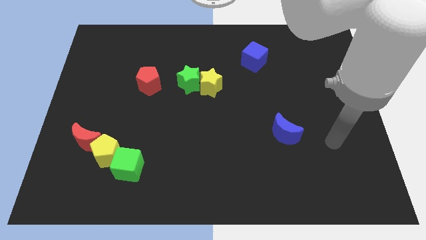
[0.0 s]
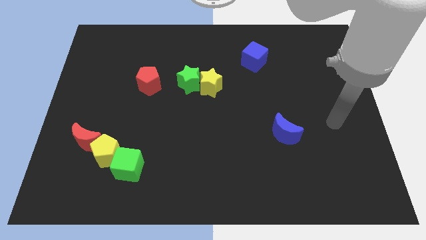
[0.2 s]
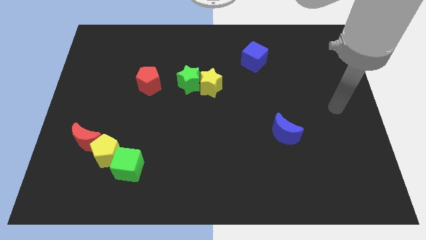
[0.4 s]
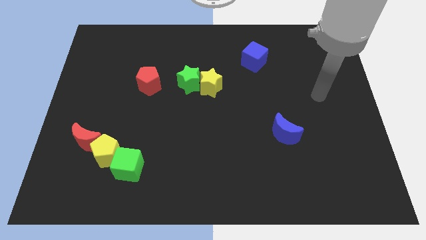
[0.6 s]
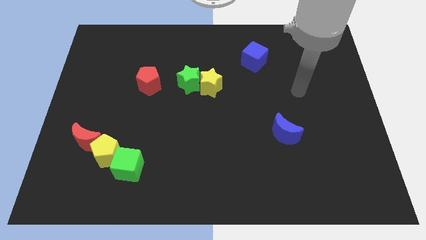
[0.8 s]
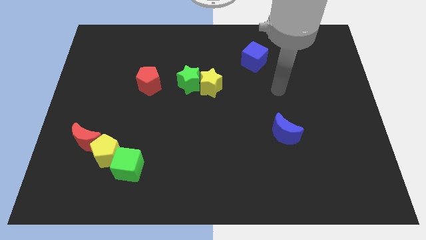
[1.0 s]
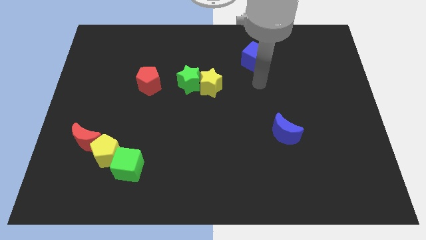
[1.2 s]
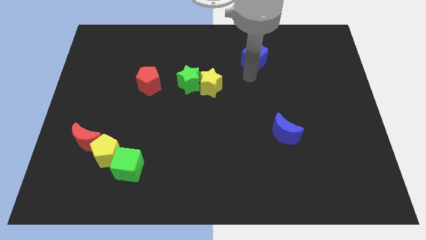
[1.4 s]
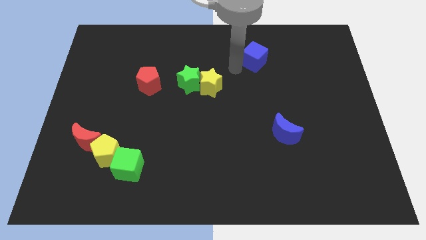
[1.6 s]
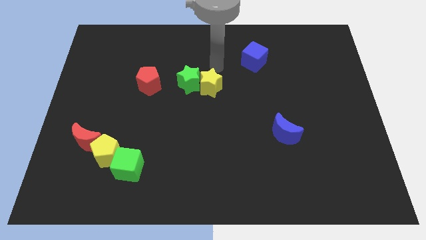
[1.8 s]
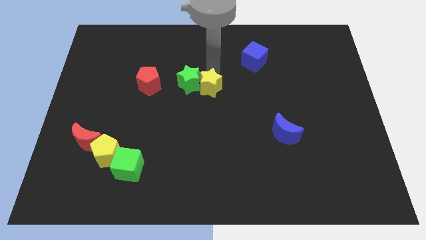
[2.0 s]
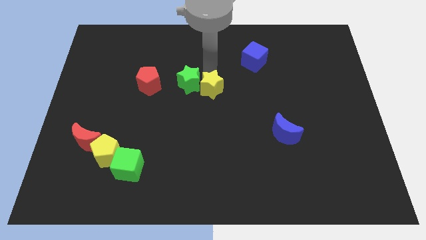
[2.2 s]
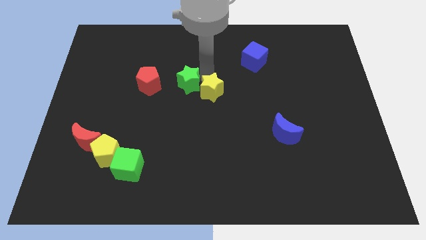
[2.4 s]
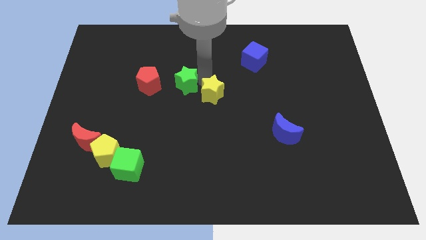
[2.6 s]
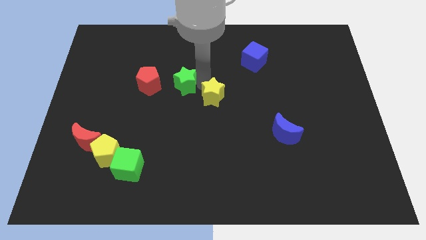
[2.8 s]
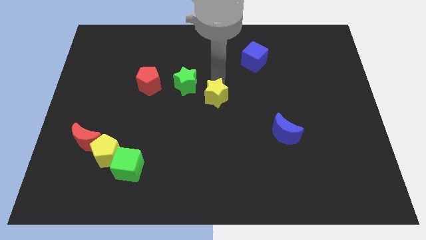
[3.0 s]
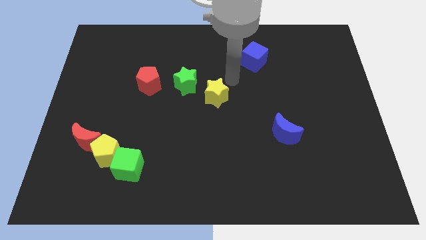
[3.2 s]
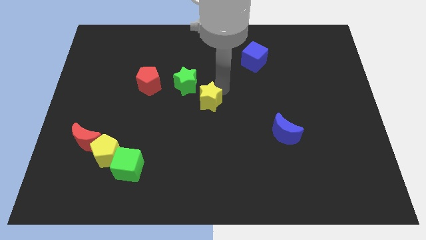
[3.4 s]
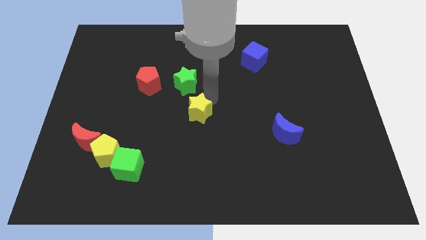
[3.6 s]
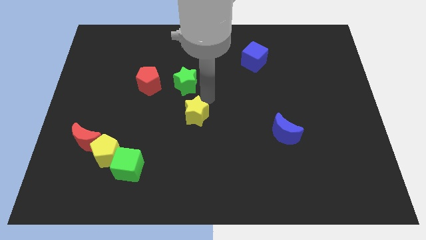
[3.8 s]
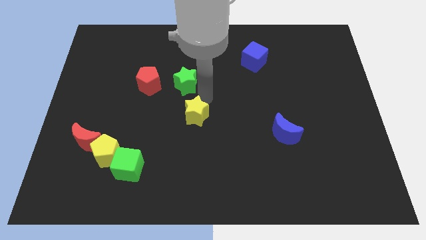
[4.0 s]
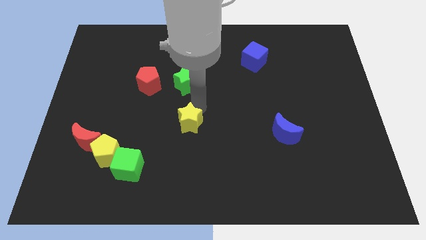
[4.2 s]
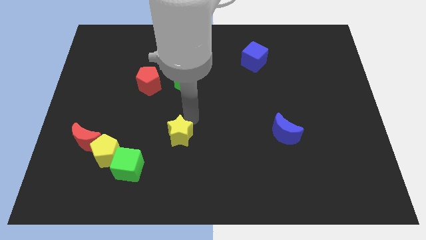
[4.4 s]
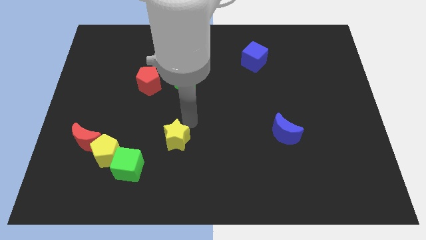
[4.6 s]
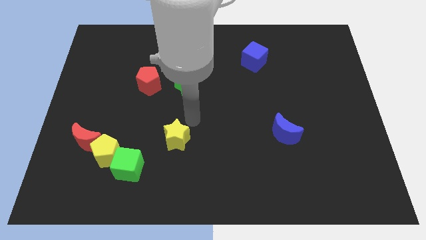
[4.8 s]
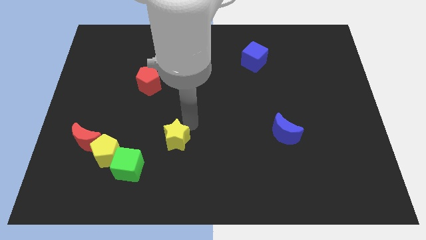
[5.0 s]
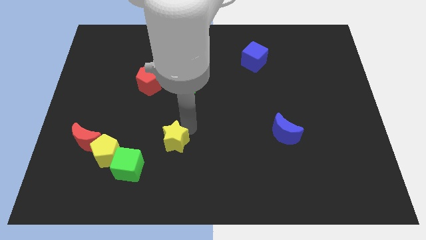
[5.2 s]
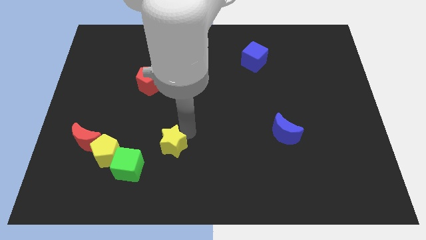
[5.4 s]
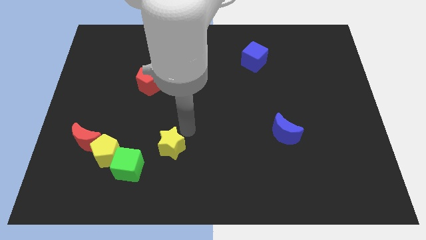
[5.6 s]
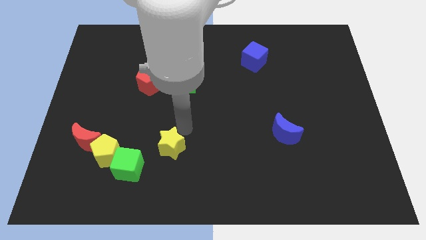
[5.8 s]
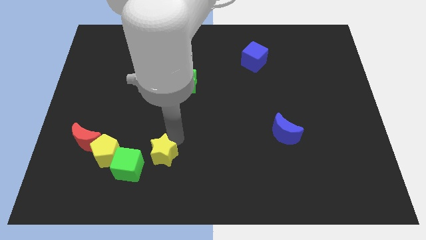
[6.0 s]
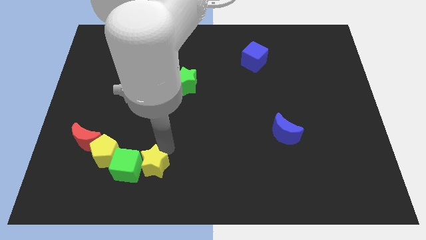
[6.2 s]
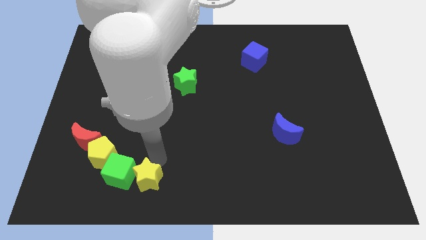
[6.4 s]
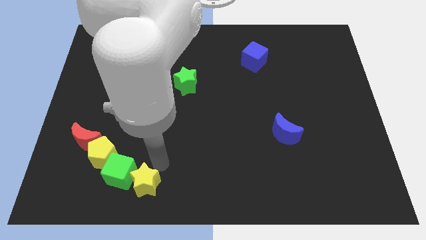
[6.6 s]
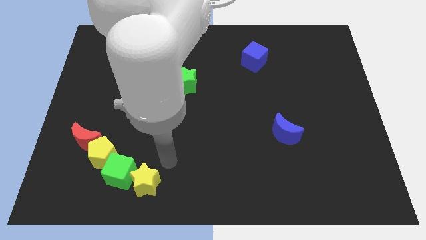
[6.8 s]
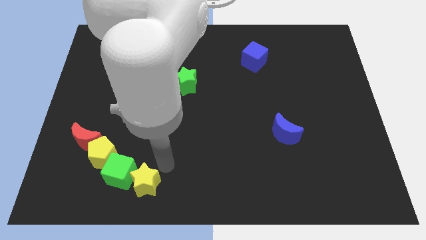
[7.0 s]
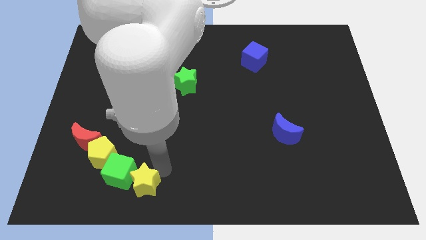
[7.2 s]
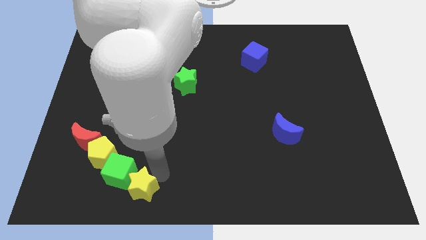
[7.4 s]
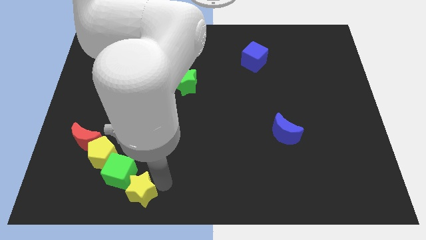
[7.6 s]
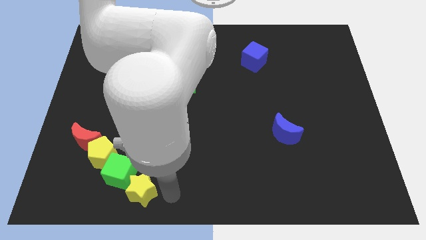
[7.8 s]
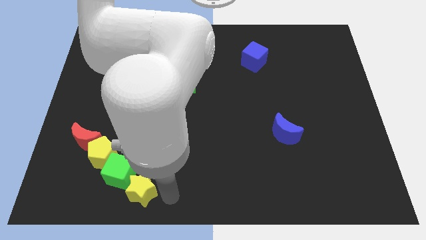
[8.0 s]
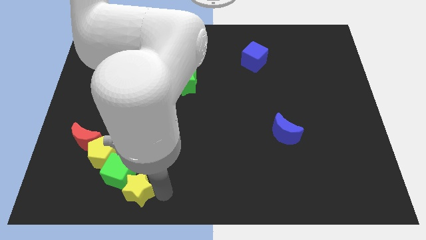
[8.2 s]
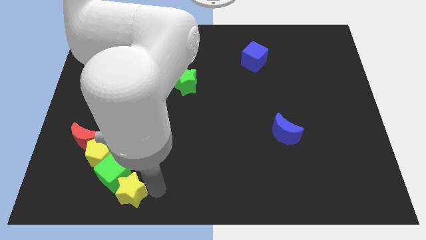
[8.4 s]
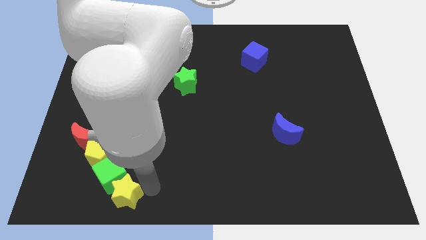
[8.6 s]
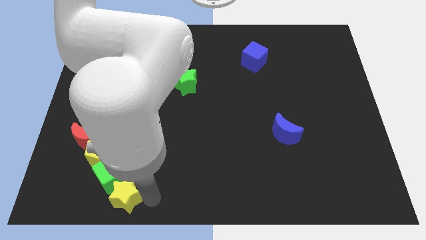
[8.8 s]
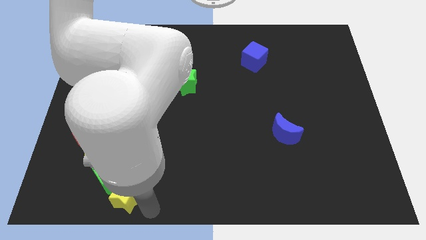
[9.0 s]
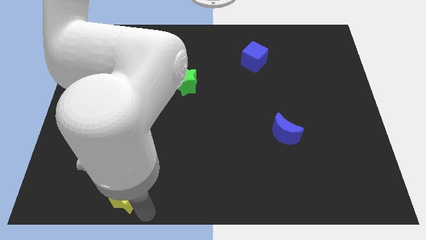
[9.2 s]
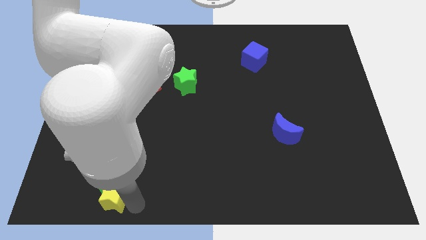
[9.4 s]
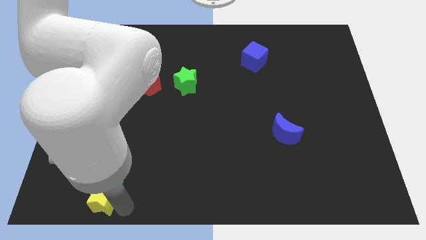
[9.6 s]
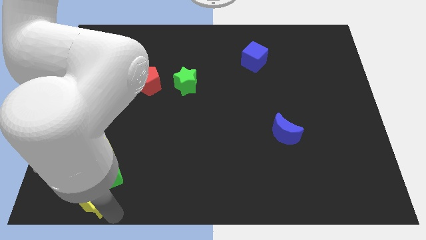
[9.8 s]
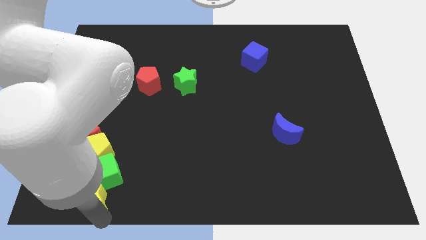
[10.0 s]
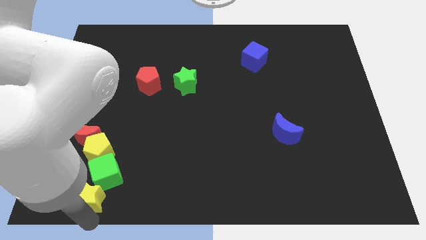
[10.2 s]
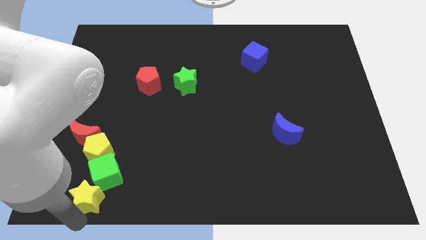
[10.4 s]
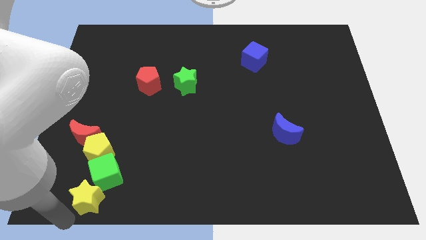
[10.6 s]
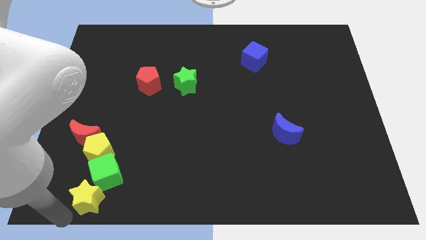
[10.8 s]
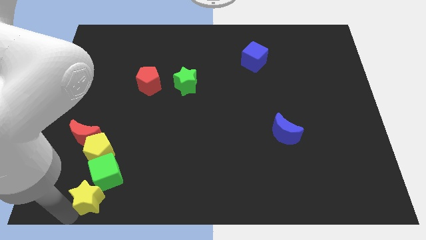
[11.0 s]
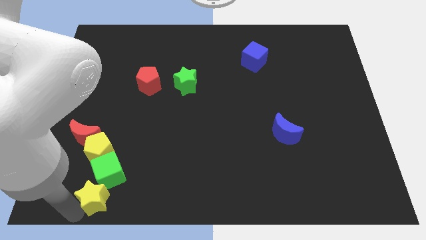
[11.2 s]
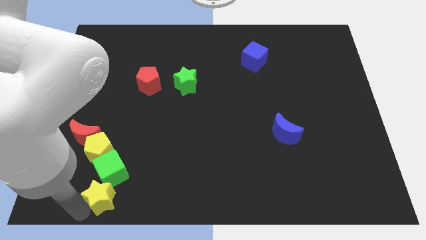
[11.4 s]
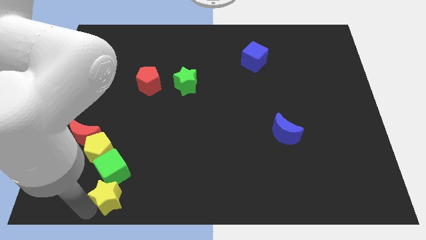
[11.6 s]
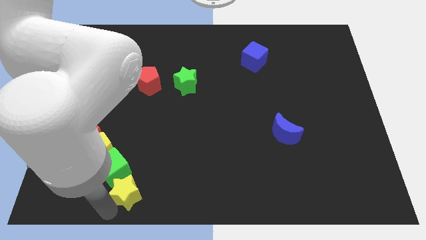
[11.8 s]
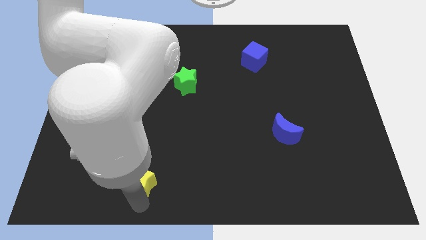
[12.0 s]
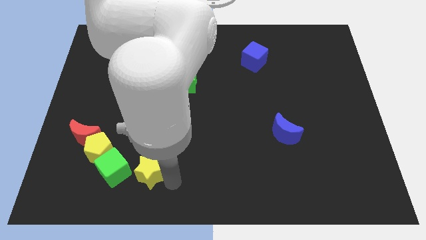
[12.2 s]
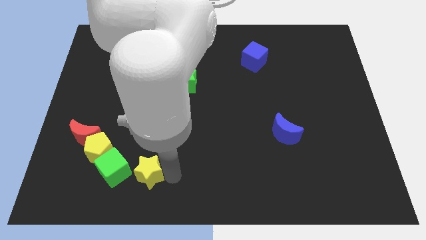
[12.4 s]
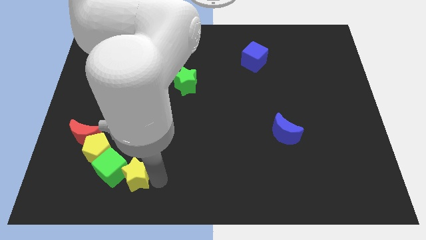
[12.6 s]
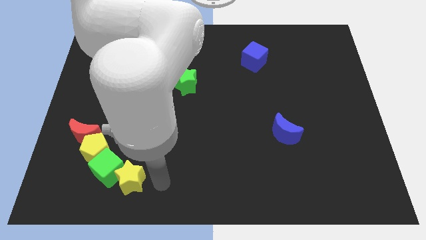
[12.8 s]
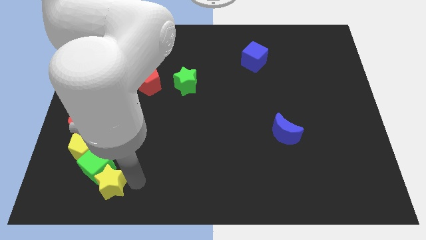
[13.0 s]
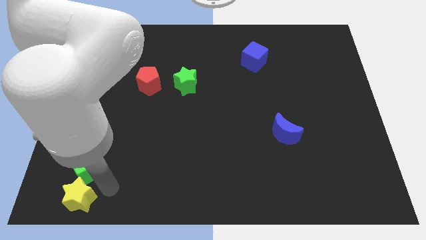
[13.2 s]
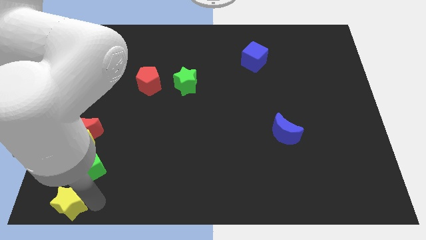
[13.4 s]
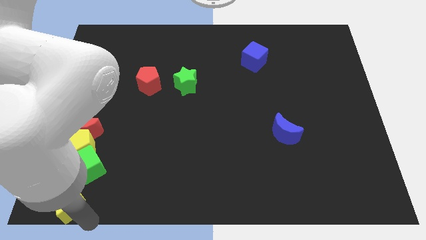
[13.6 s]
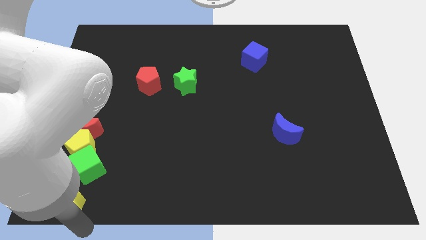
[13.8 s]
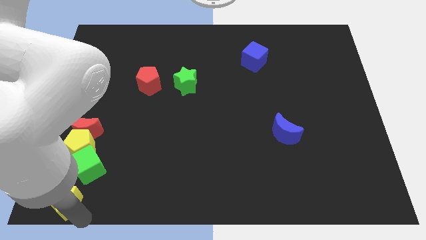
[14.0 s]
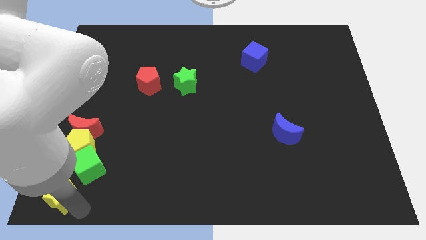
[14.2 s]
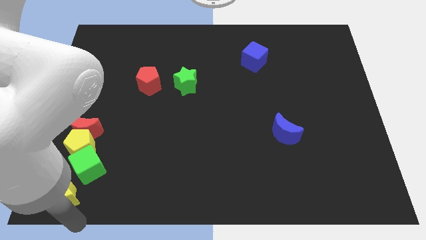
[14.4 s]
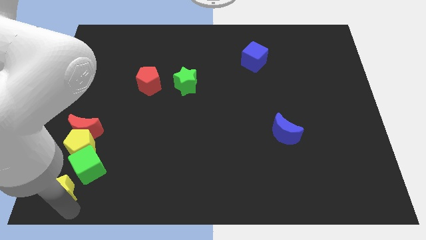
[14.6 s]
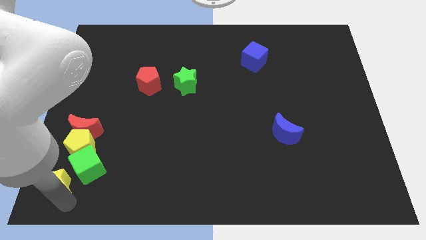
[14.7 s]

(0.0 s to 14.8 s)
push the yellow star to the bottom left side of the yellow pentagon

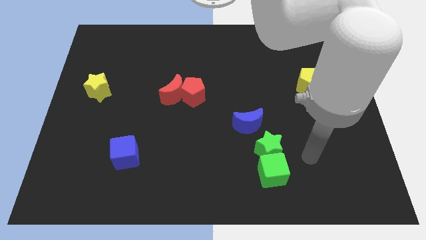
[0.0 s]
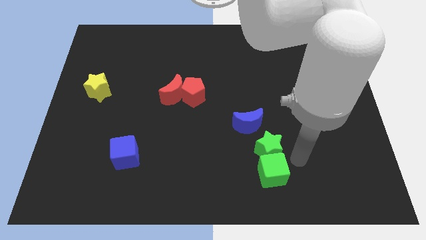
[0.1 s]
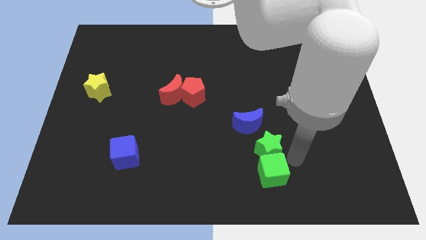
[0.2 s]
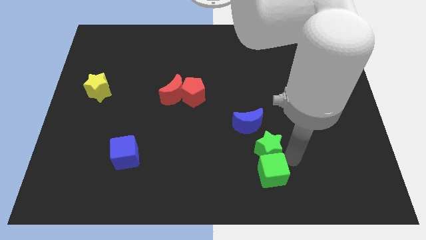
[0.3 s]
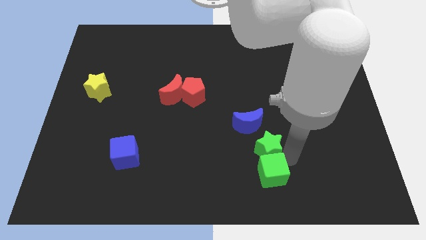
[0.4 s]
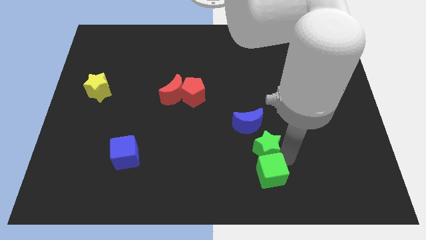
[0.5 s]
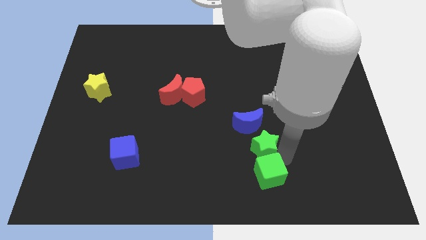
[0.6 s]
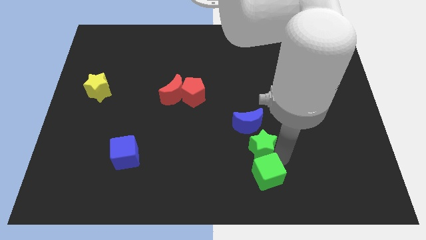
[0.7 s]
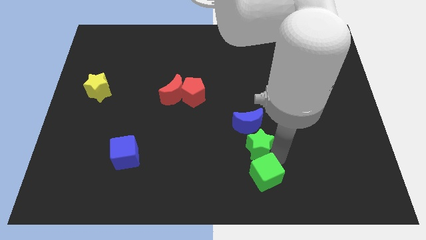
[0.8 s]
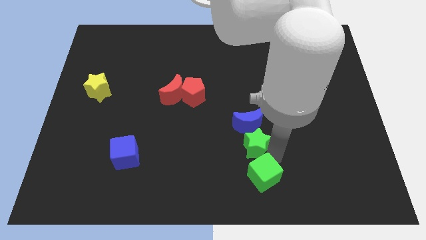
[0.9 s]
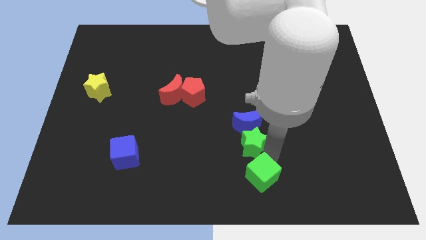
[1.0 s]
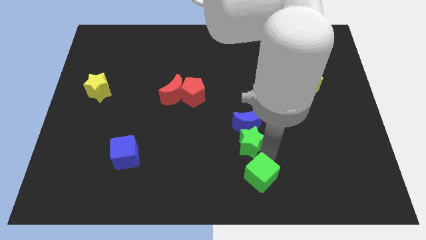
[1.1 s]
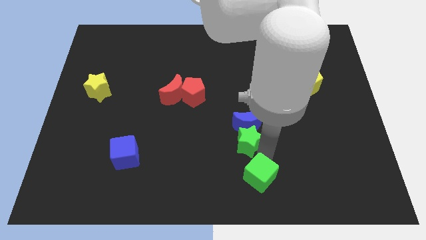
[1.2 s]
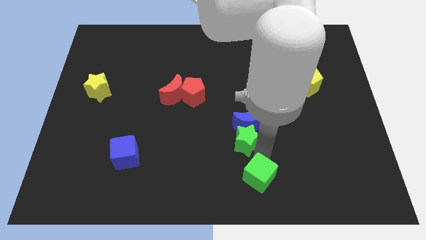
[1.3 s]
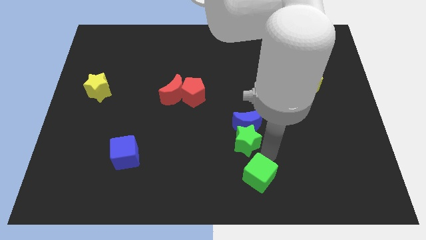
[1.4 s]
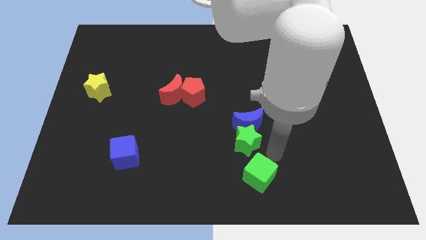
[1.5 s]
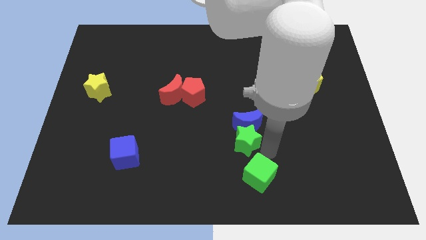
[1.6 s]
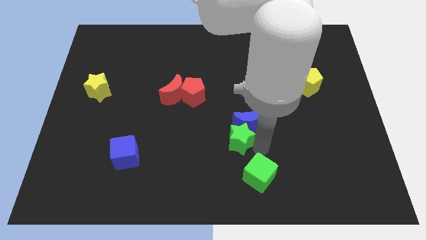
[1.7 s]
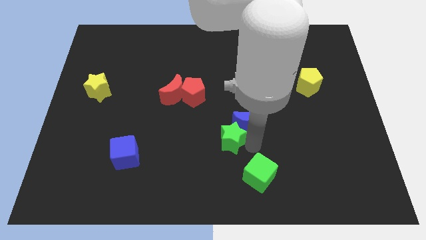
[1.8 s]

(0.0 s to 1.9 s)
push the green star just left of the blue moon
